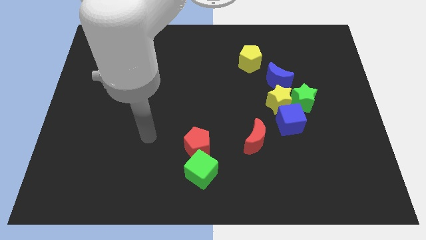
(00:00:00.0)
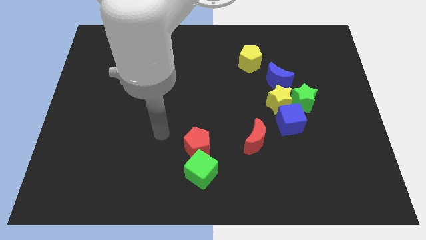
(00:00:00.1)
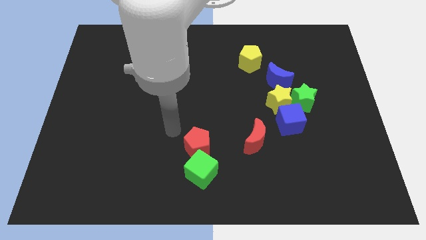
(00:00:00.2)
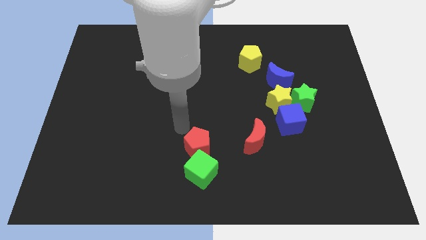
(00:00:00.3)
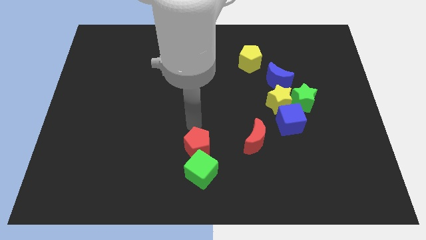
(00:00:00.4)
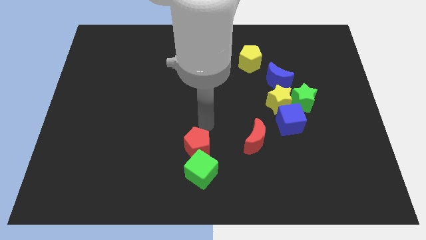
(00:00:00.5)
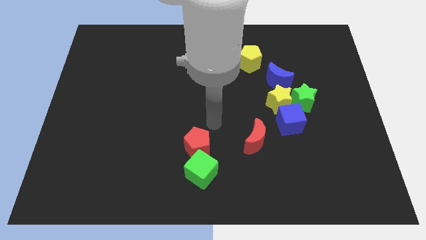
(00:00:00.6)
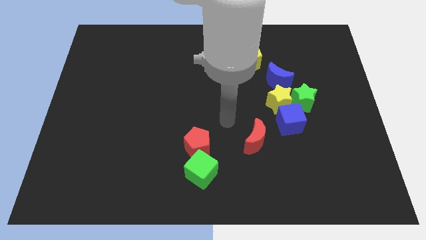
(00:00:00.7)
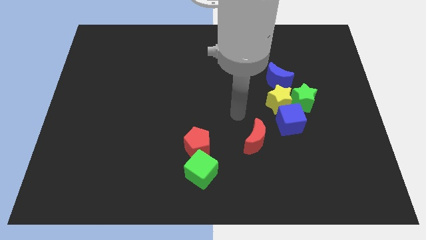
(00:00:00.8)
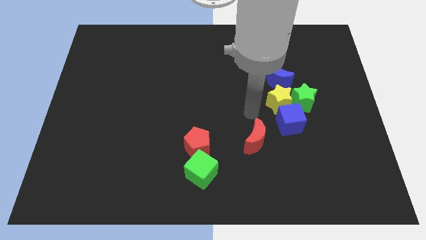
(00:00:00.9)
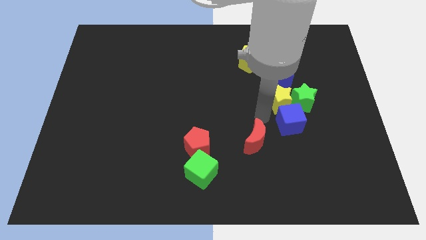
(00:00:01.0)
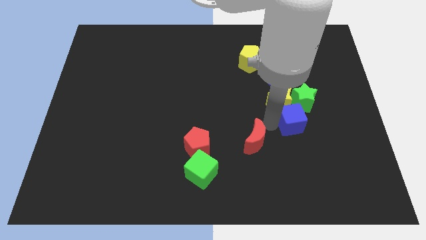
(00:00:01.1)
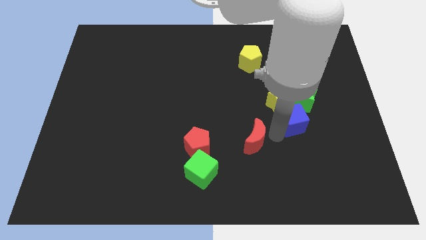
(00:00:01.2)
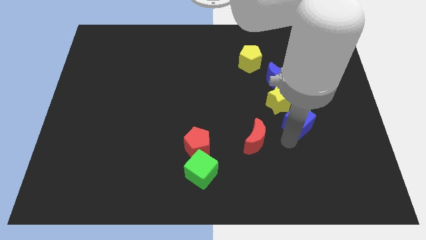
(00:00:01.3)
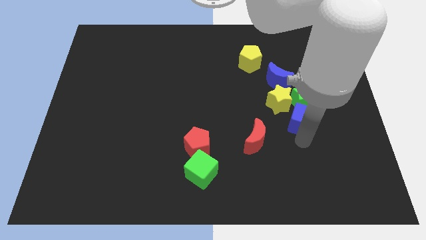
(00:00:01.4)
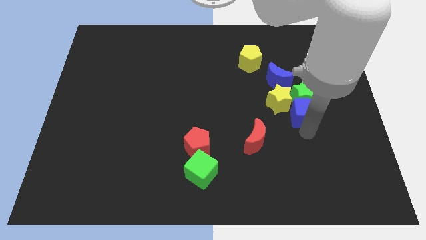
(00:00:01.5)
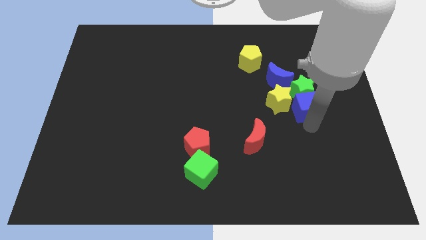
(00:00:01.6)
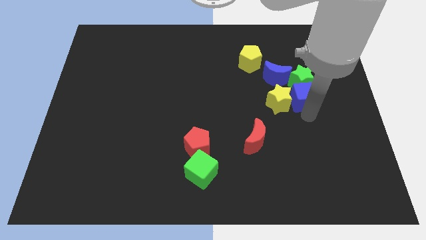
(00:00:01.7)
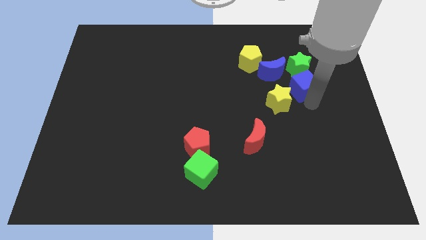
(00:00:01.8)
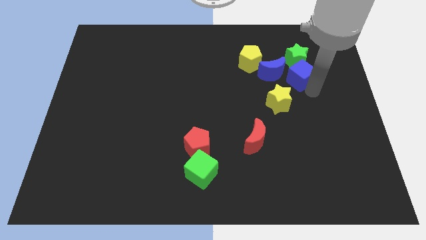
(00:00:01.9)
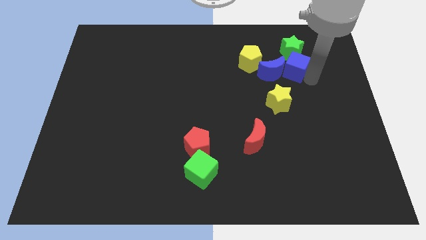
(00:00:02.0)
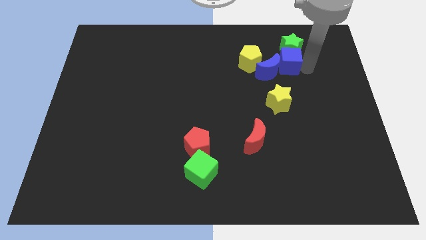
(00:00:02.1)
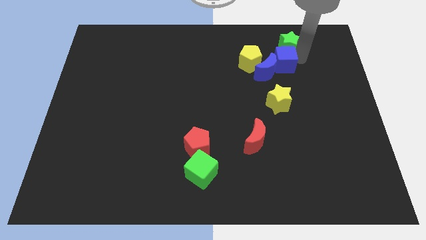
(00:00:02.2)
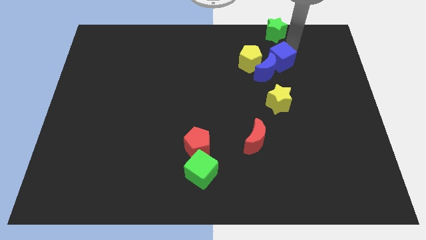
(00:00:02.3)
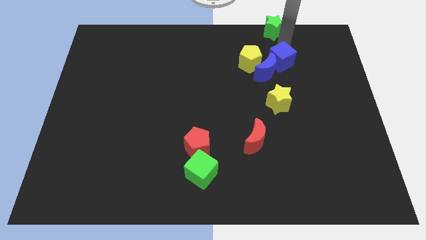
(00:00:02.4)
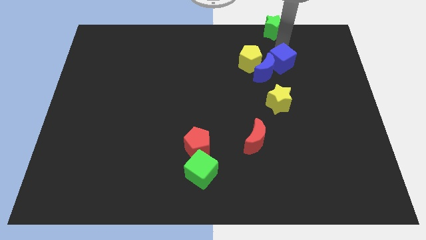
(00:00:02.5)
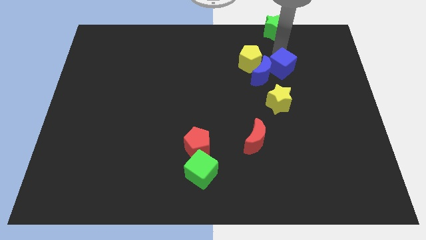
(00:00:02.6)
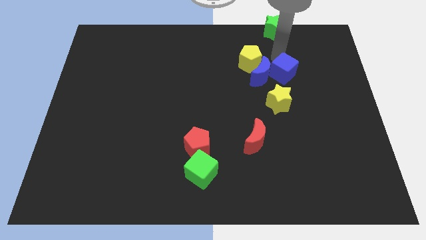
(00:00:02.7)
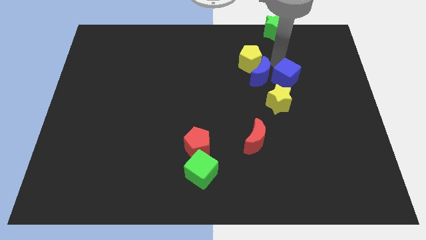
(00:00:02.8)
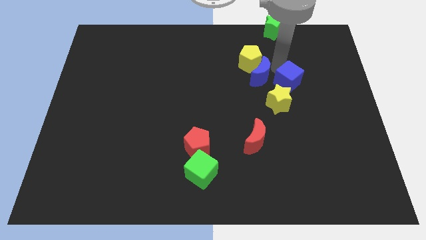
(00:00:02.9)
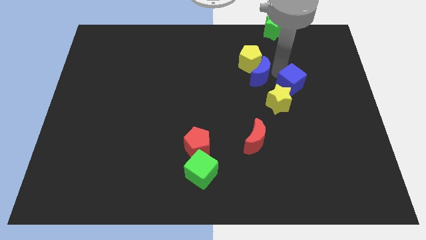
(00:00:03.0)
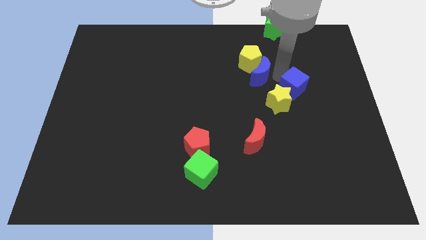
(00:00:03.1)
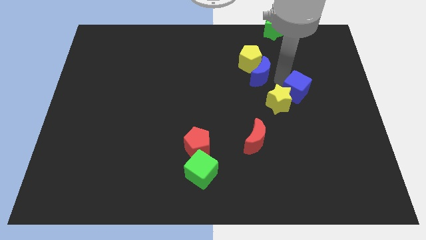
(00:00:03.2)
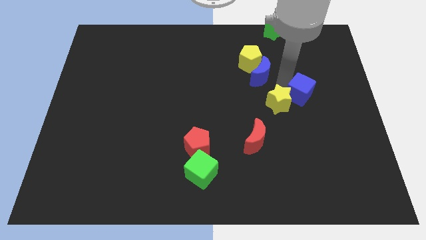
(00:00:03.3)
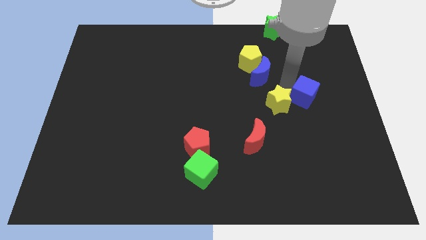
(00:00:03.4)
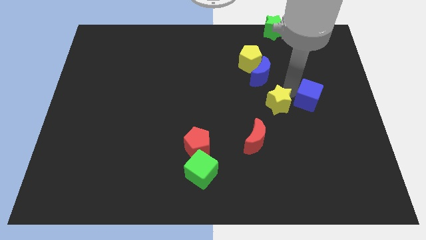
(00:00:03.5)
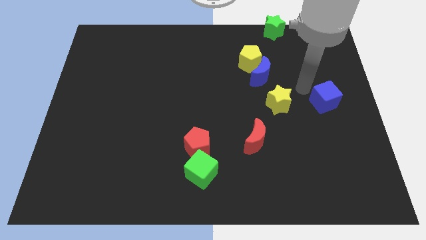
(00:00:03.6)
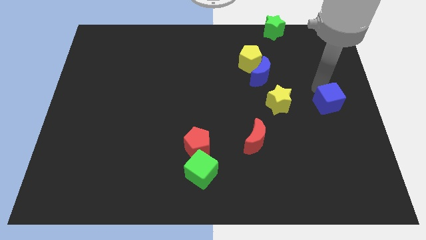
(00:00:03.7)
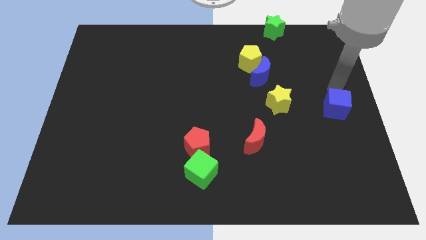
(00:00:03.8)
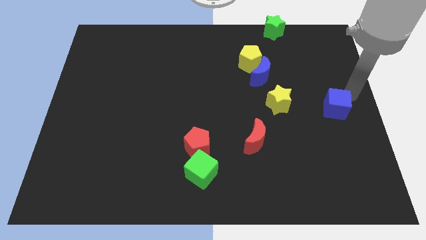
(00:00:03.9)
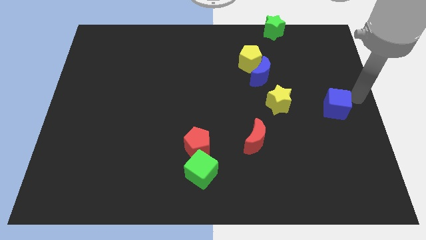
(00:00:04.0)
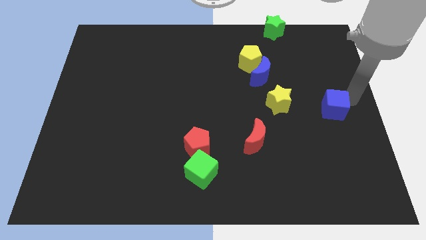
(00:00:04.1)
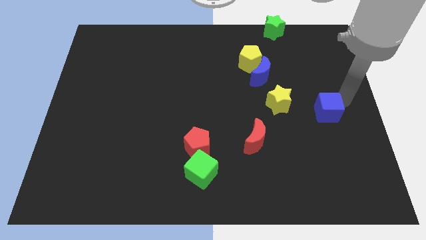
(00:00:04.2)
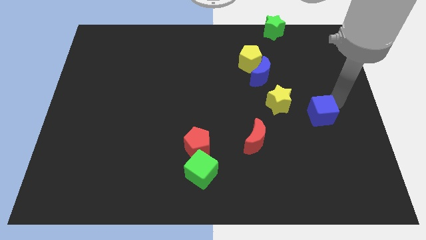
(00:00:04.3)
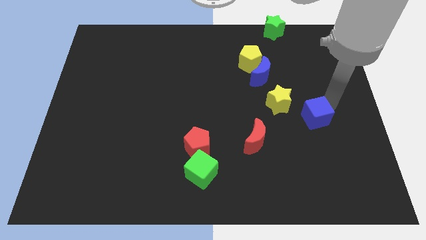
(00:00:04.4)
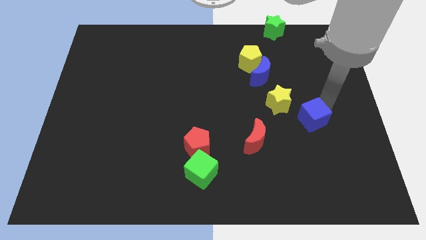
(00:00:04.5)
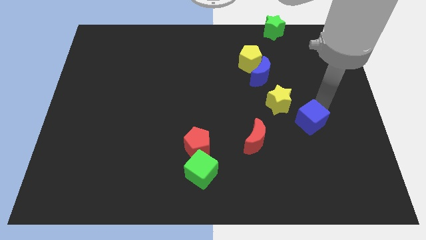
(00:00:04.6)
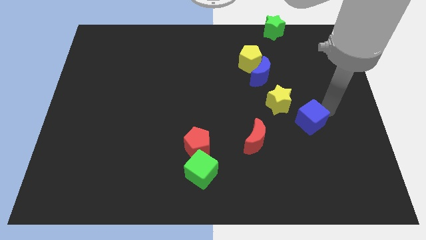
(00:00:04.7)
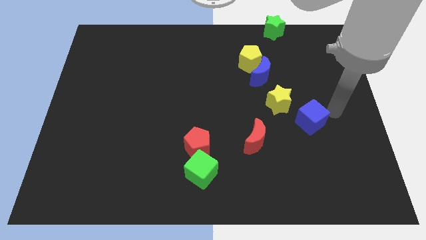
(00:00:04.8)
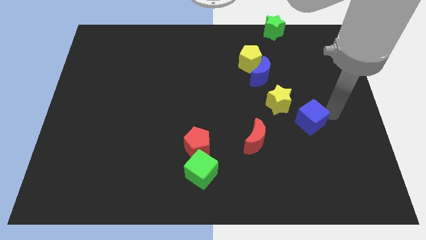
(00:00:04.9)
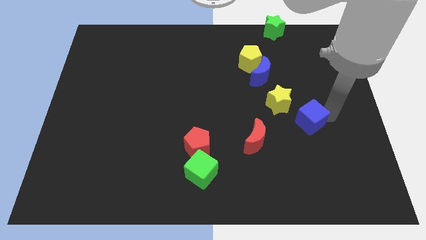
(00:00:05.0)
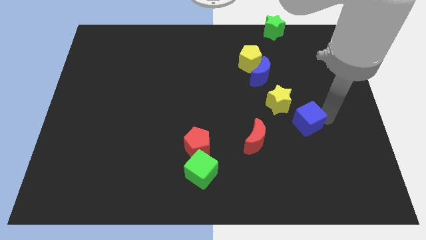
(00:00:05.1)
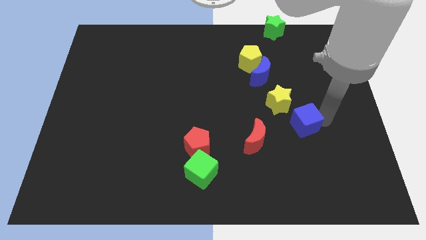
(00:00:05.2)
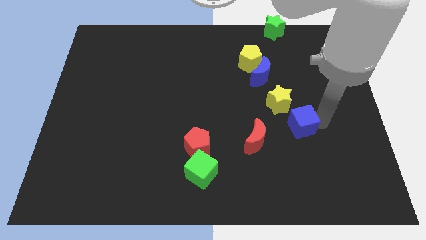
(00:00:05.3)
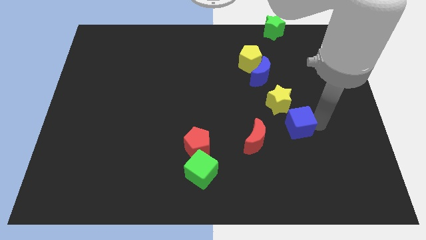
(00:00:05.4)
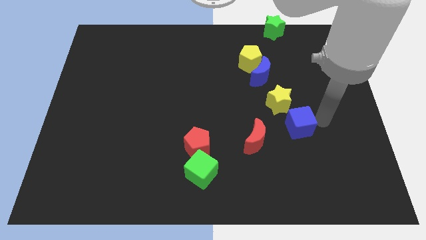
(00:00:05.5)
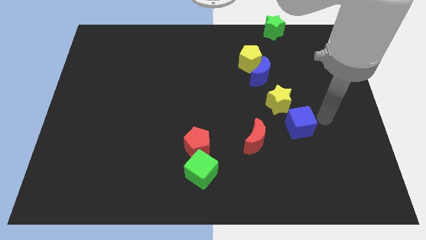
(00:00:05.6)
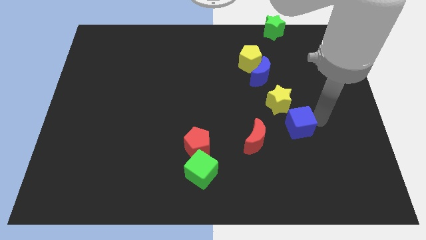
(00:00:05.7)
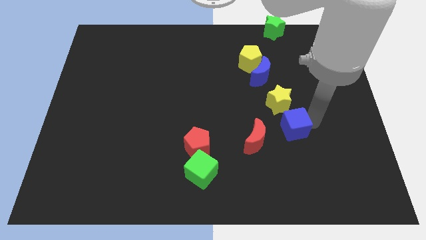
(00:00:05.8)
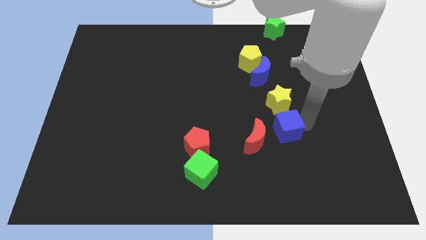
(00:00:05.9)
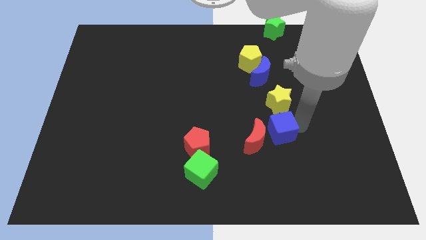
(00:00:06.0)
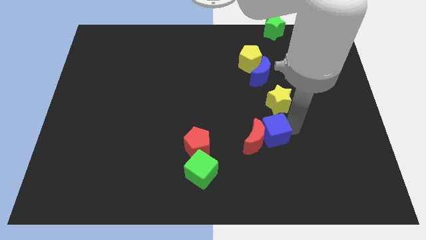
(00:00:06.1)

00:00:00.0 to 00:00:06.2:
slide the blue cube next to the red moon

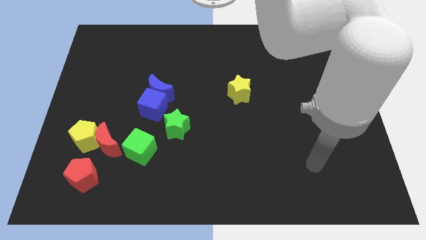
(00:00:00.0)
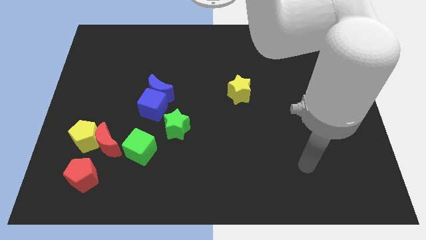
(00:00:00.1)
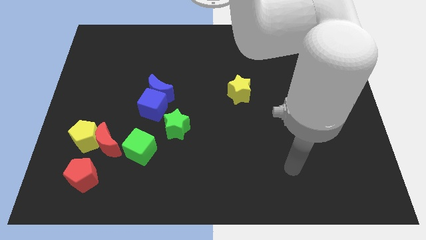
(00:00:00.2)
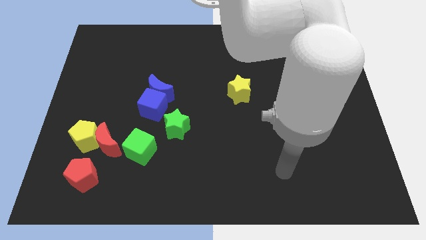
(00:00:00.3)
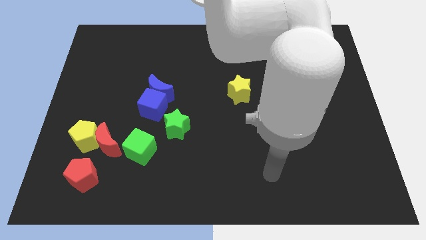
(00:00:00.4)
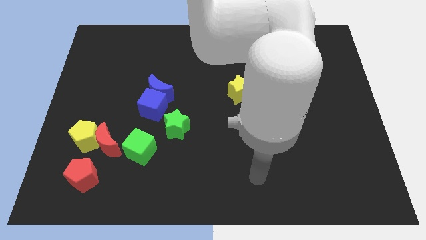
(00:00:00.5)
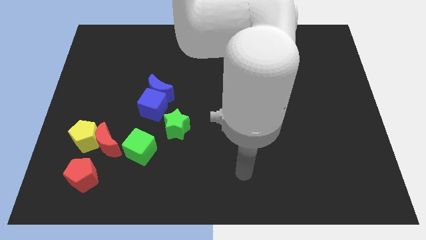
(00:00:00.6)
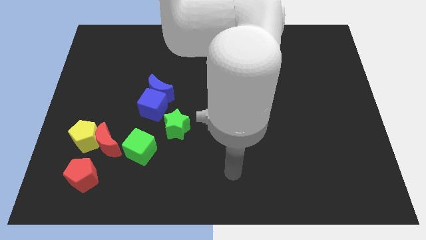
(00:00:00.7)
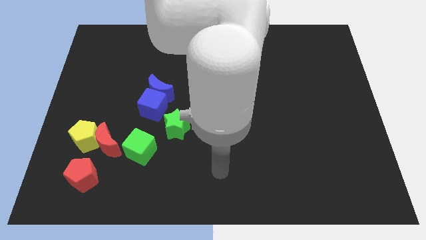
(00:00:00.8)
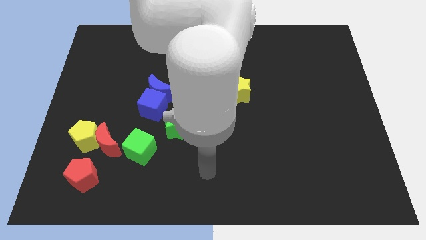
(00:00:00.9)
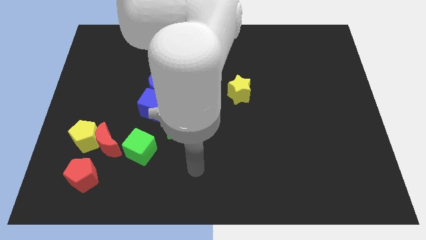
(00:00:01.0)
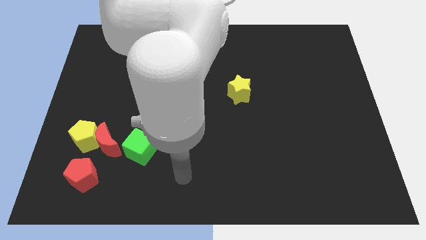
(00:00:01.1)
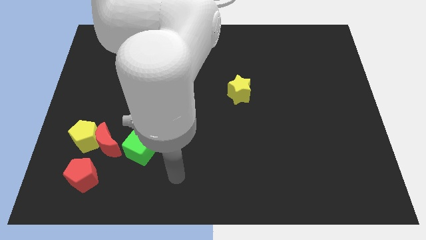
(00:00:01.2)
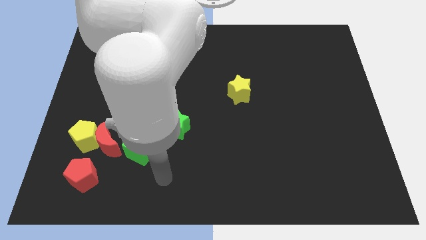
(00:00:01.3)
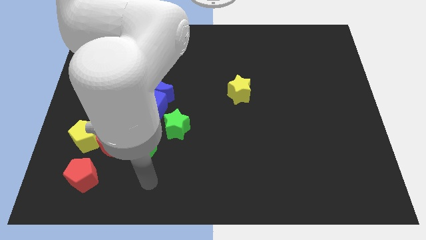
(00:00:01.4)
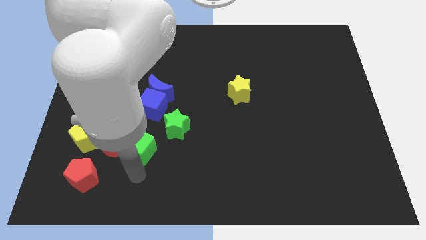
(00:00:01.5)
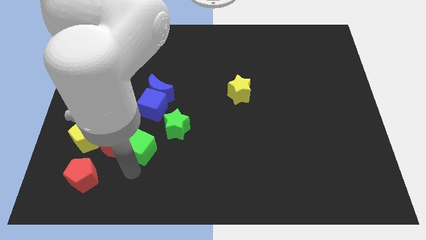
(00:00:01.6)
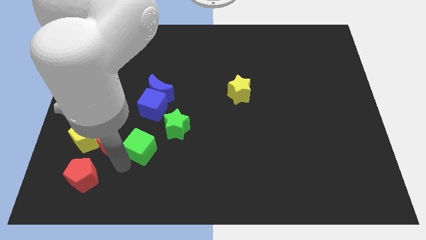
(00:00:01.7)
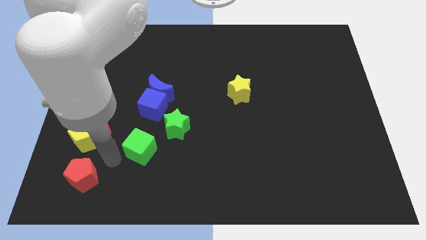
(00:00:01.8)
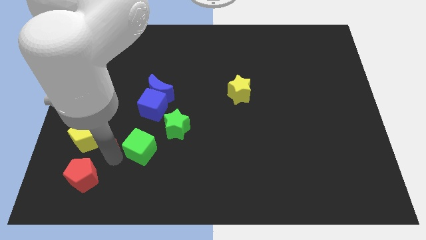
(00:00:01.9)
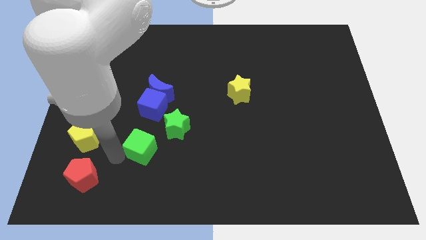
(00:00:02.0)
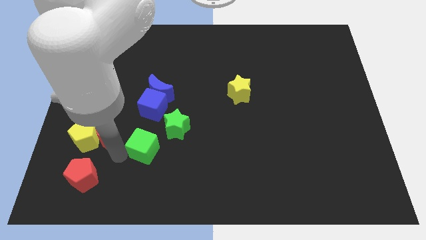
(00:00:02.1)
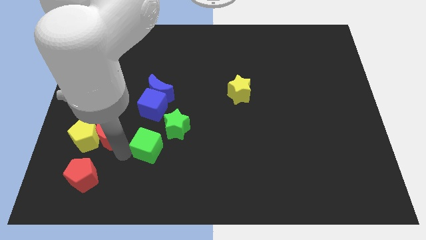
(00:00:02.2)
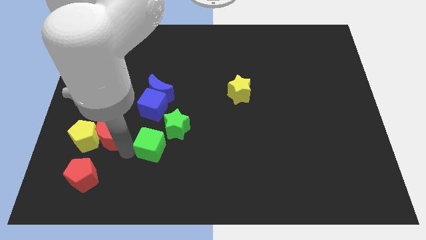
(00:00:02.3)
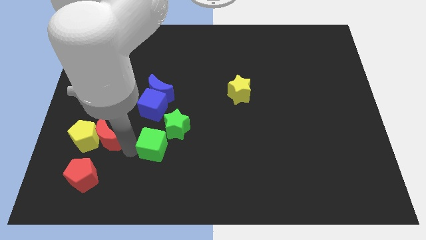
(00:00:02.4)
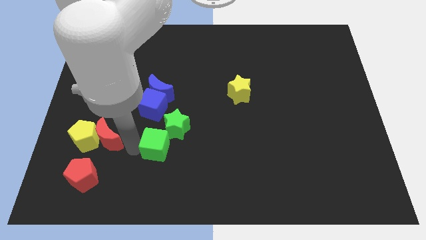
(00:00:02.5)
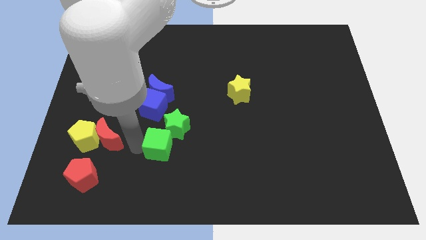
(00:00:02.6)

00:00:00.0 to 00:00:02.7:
push the green cube to the green star
